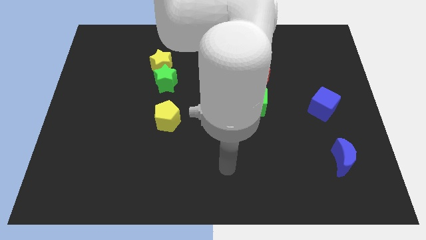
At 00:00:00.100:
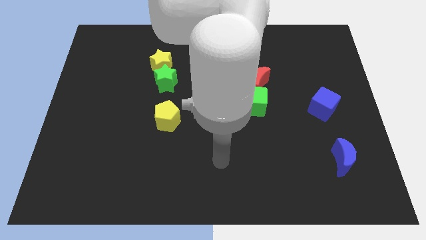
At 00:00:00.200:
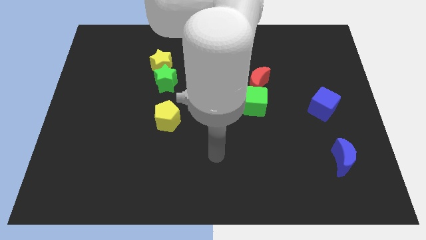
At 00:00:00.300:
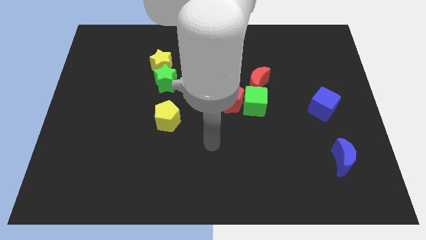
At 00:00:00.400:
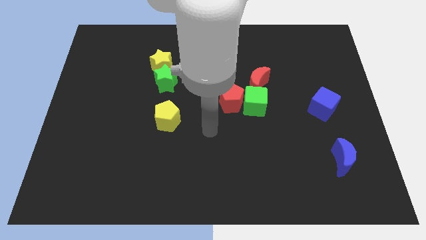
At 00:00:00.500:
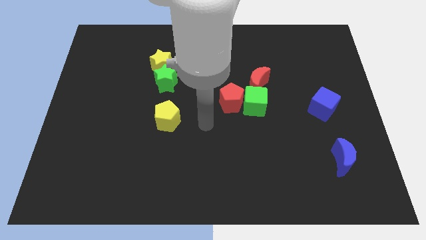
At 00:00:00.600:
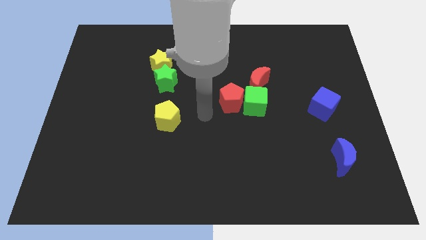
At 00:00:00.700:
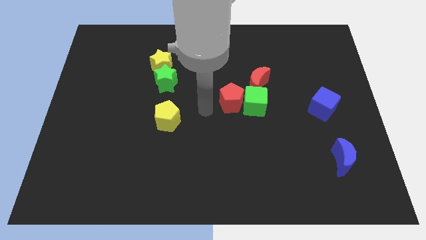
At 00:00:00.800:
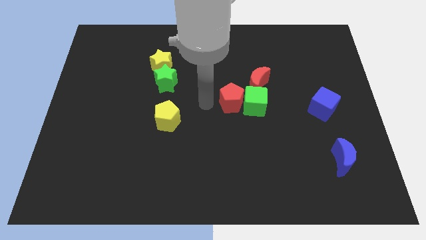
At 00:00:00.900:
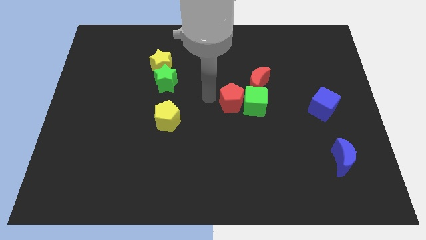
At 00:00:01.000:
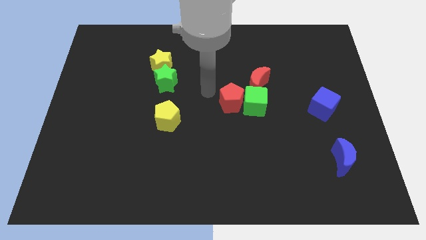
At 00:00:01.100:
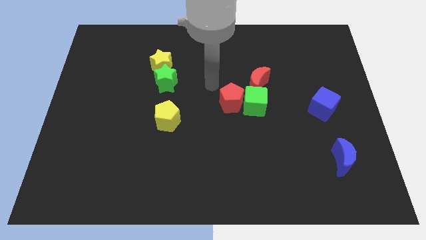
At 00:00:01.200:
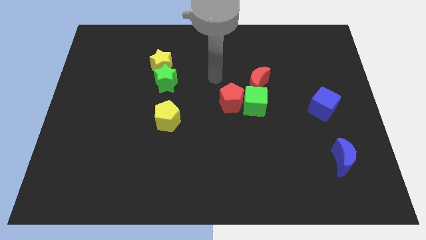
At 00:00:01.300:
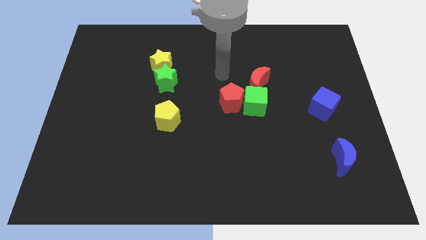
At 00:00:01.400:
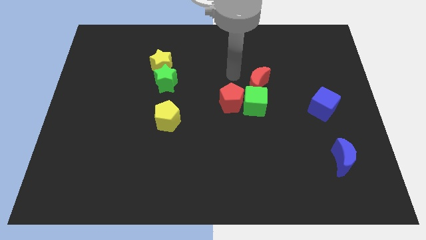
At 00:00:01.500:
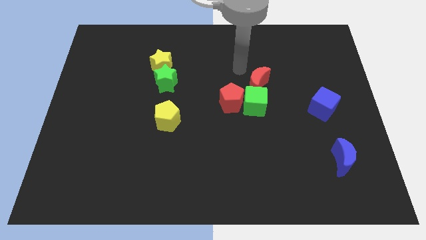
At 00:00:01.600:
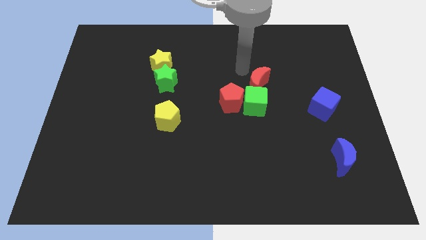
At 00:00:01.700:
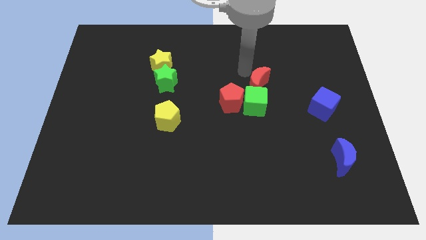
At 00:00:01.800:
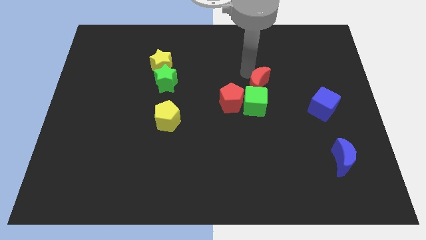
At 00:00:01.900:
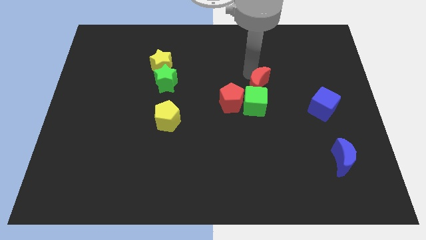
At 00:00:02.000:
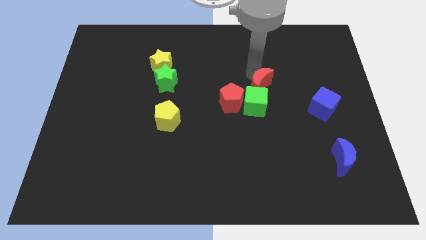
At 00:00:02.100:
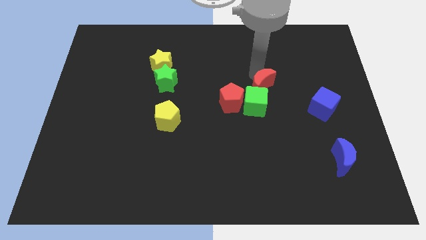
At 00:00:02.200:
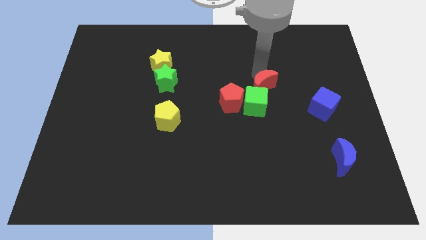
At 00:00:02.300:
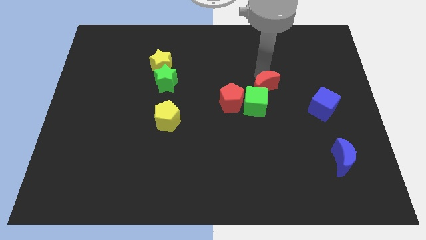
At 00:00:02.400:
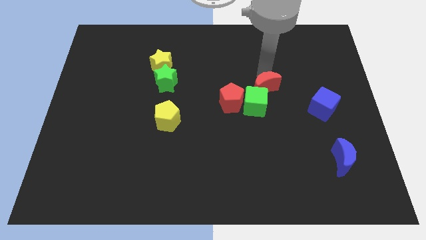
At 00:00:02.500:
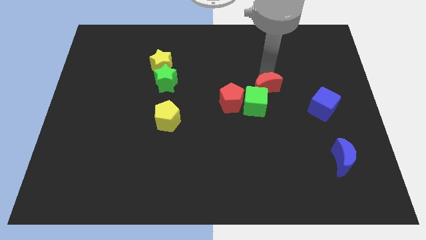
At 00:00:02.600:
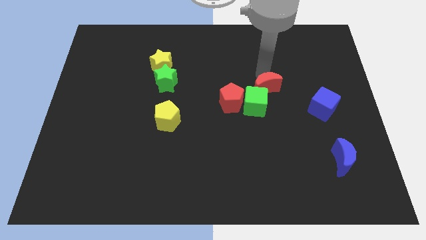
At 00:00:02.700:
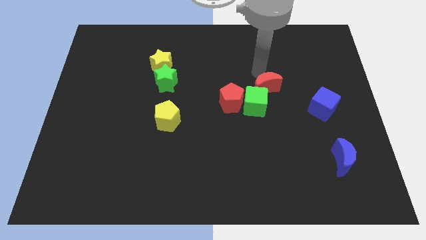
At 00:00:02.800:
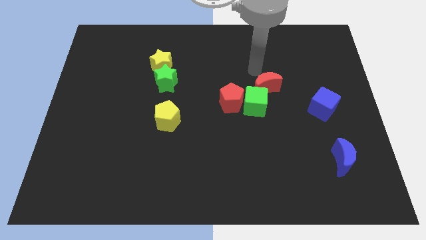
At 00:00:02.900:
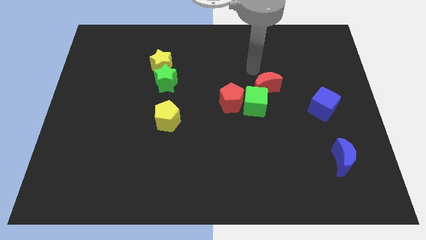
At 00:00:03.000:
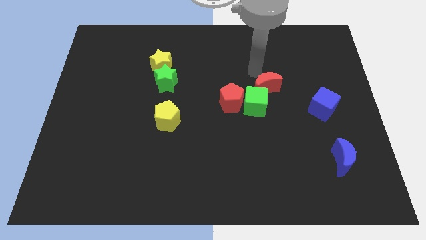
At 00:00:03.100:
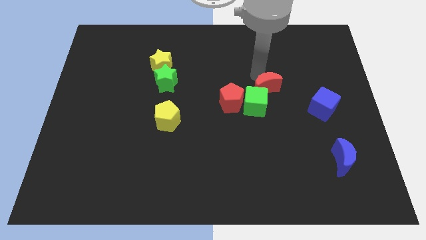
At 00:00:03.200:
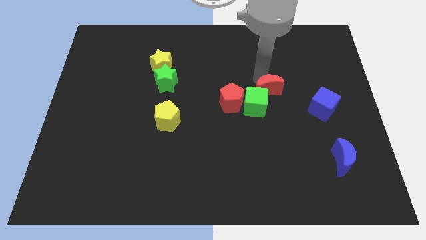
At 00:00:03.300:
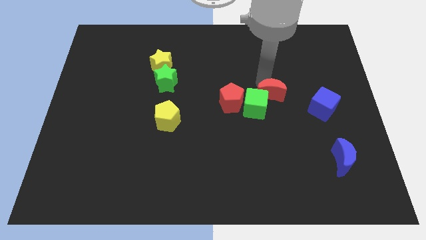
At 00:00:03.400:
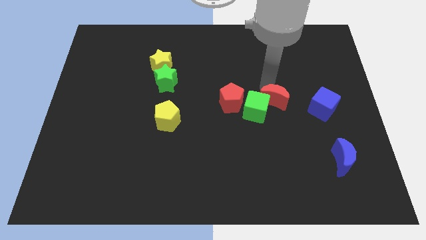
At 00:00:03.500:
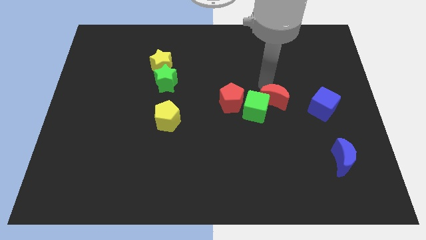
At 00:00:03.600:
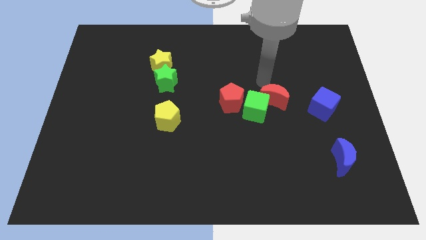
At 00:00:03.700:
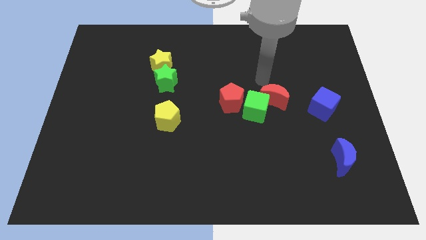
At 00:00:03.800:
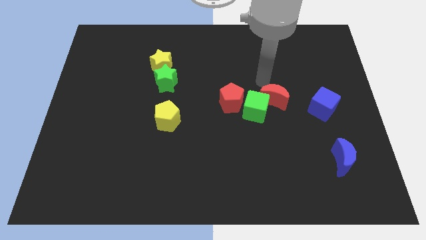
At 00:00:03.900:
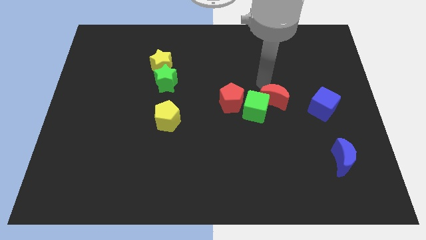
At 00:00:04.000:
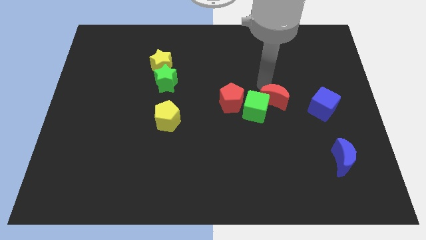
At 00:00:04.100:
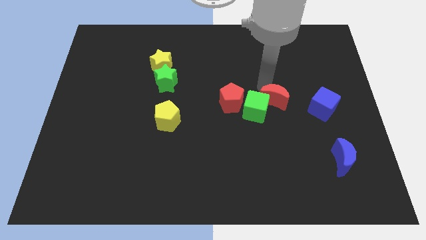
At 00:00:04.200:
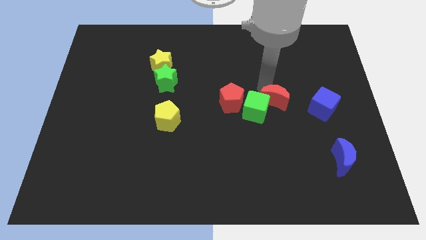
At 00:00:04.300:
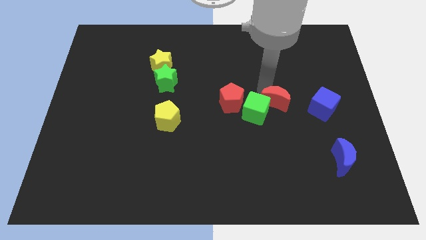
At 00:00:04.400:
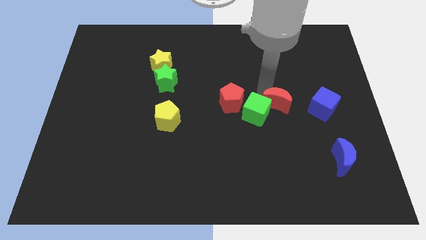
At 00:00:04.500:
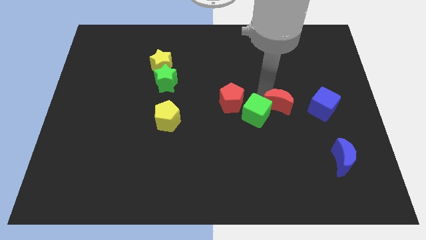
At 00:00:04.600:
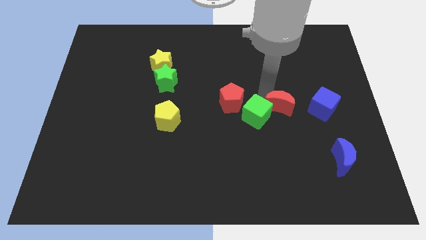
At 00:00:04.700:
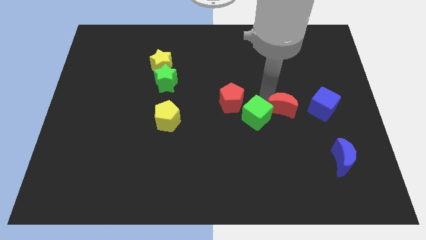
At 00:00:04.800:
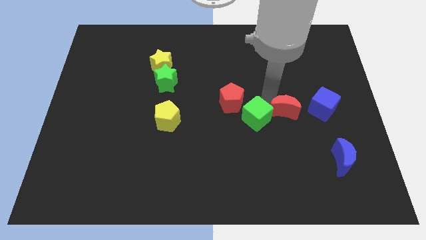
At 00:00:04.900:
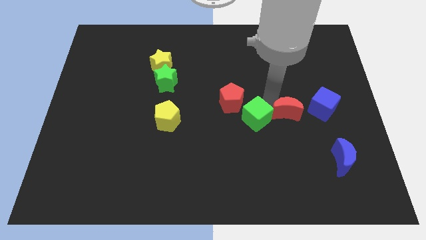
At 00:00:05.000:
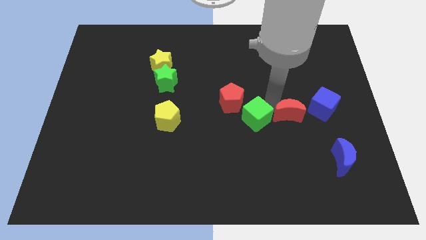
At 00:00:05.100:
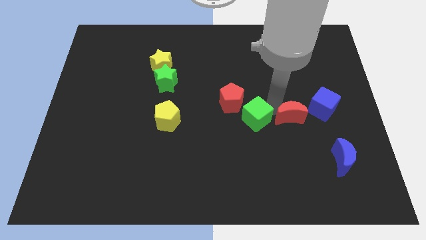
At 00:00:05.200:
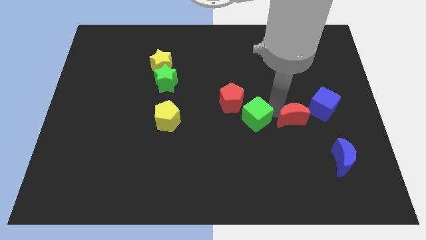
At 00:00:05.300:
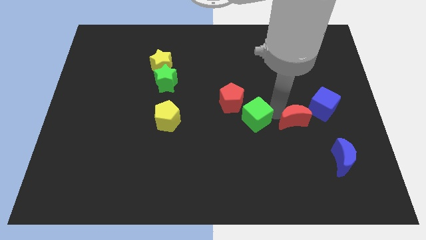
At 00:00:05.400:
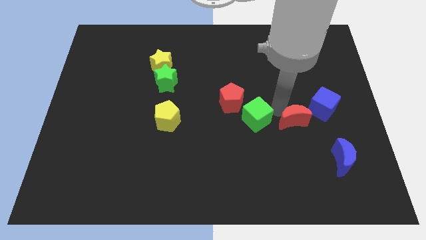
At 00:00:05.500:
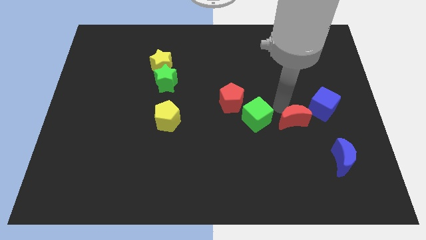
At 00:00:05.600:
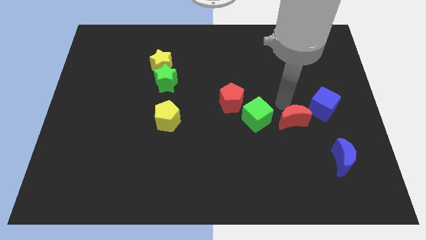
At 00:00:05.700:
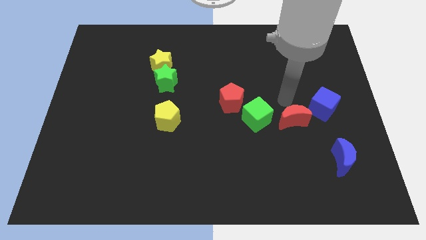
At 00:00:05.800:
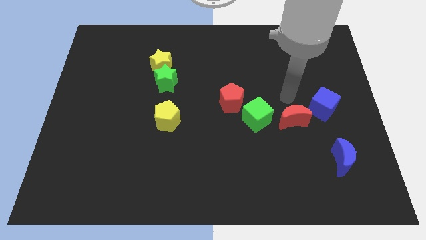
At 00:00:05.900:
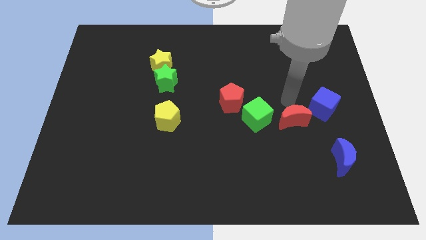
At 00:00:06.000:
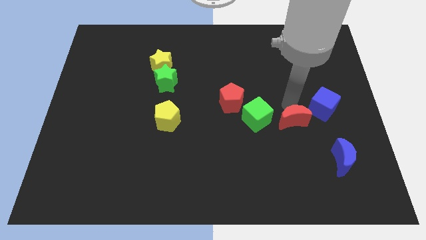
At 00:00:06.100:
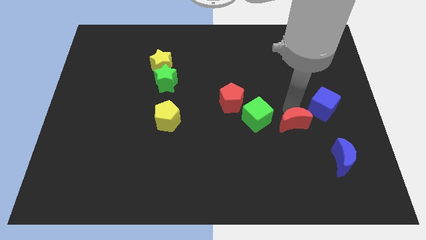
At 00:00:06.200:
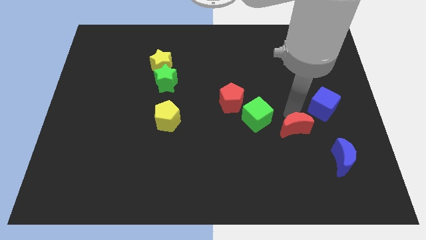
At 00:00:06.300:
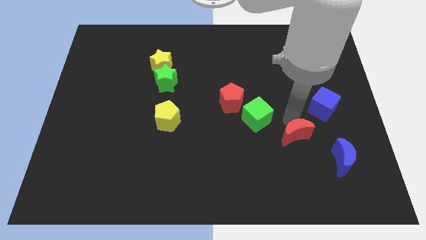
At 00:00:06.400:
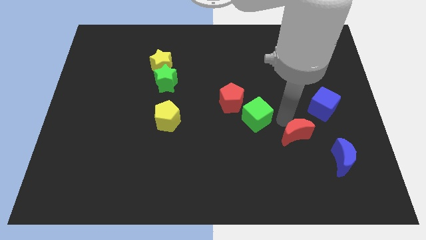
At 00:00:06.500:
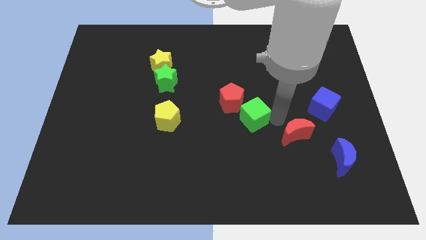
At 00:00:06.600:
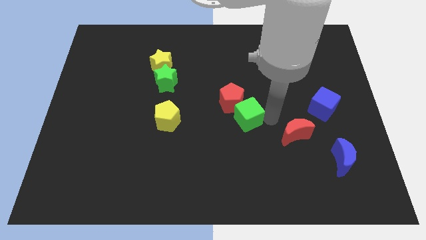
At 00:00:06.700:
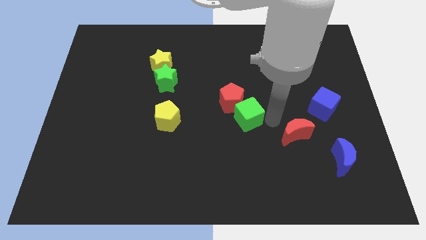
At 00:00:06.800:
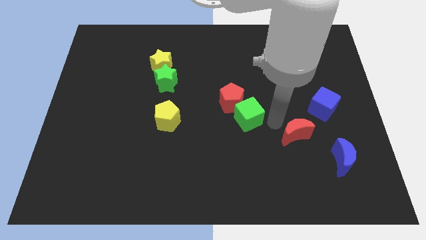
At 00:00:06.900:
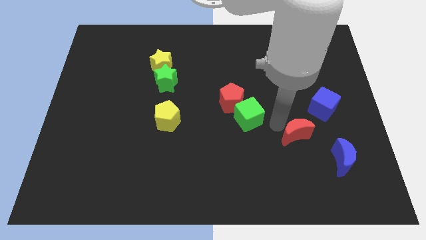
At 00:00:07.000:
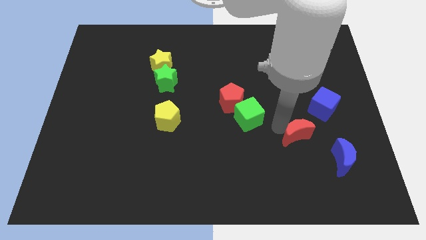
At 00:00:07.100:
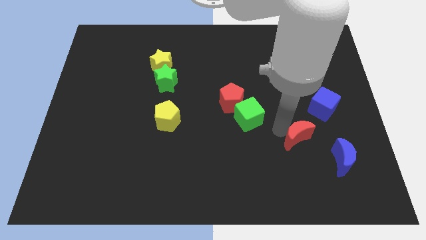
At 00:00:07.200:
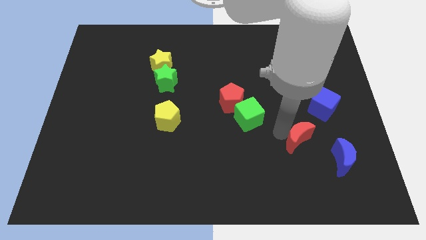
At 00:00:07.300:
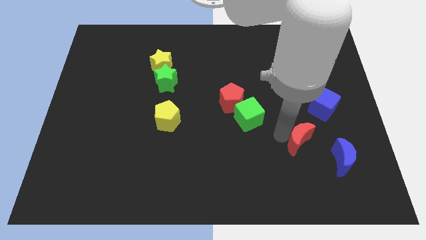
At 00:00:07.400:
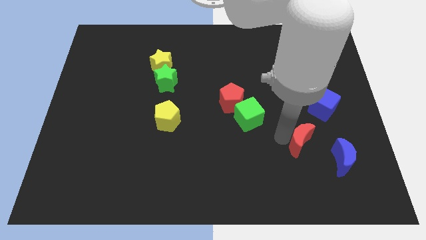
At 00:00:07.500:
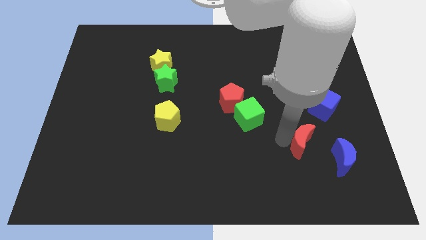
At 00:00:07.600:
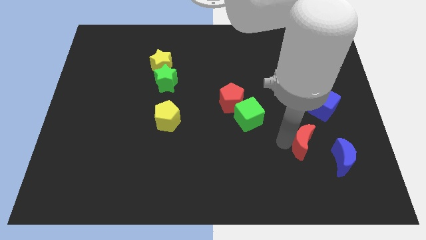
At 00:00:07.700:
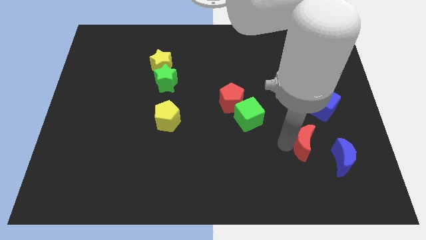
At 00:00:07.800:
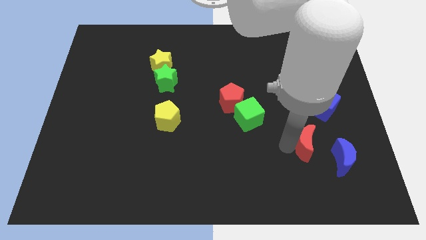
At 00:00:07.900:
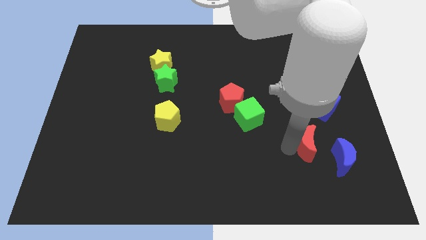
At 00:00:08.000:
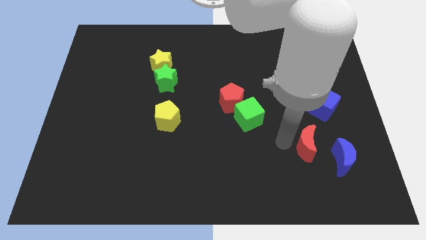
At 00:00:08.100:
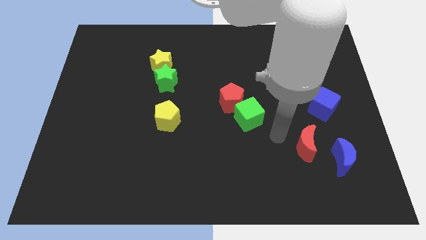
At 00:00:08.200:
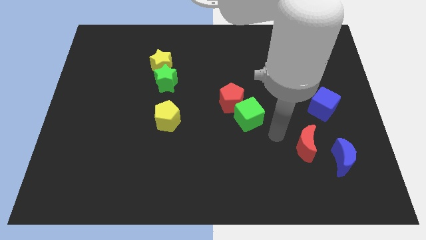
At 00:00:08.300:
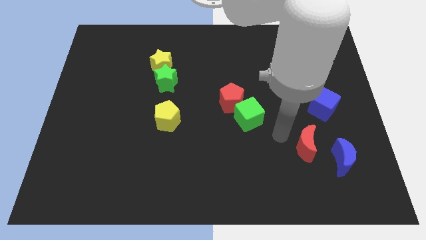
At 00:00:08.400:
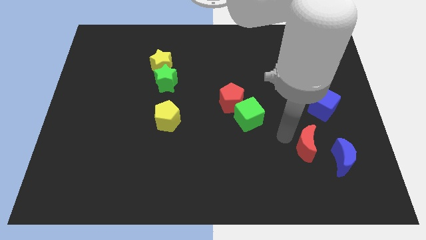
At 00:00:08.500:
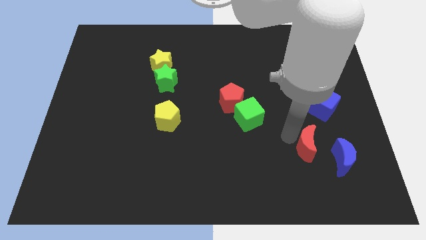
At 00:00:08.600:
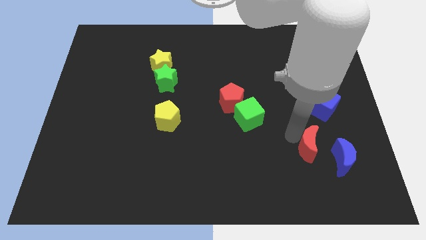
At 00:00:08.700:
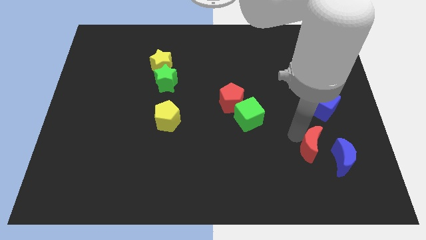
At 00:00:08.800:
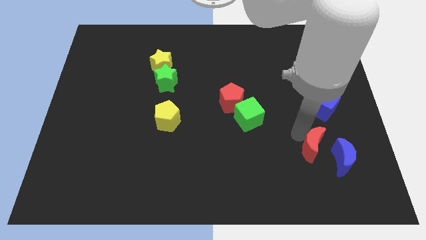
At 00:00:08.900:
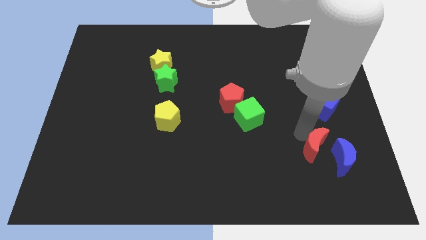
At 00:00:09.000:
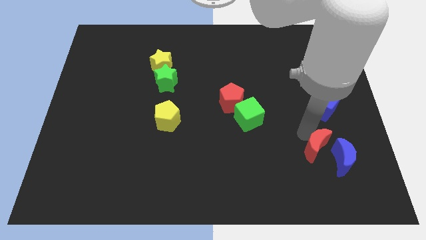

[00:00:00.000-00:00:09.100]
put the red moon next to the blue moon
